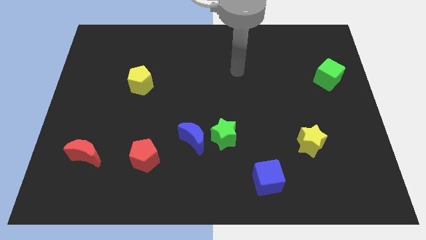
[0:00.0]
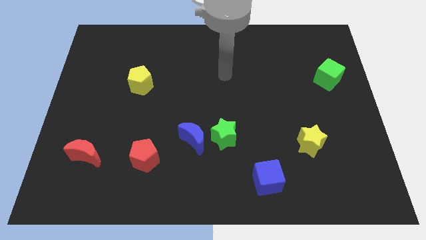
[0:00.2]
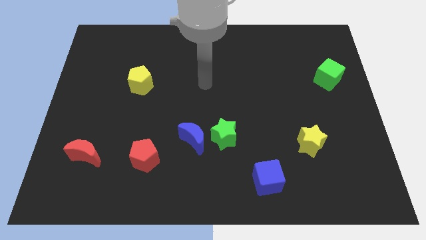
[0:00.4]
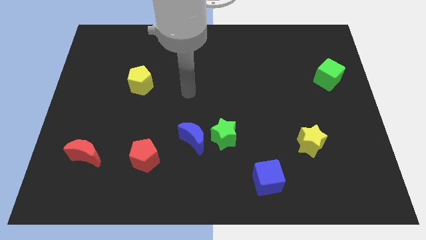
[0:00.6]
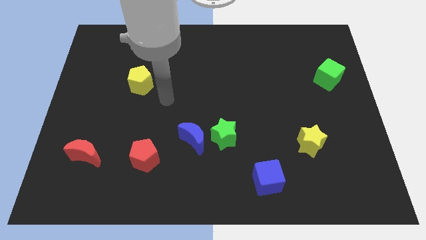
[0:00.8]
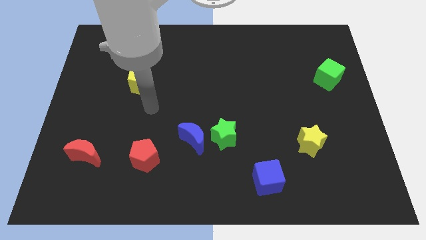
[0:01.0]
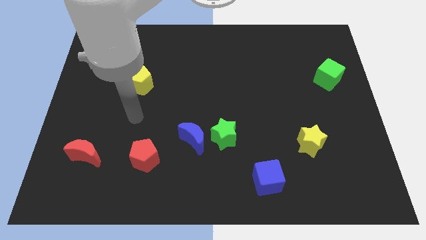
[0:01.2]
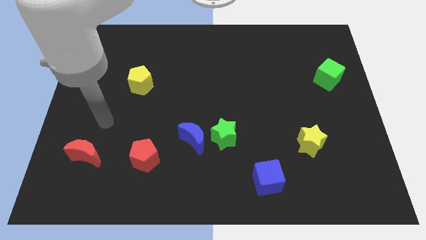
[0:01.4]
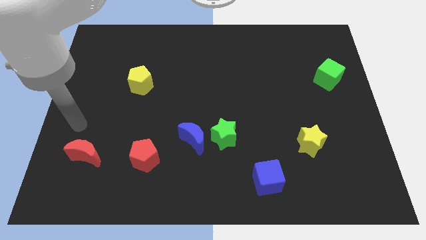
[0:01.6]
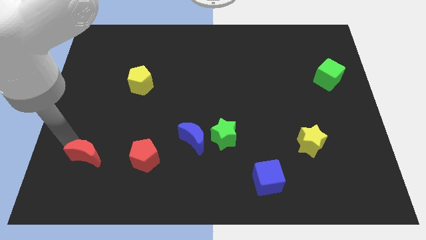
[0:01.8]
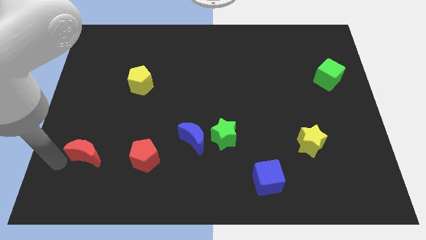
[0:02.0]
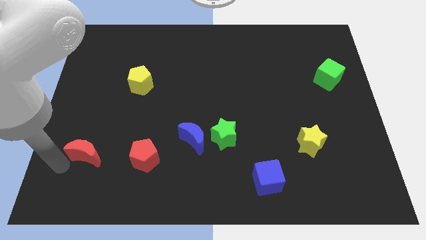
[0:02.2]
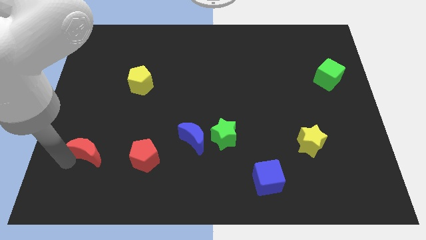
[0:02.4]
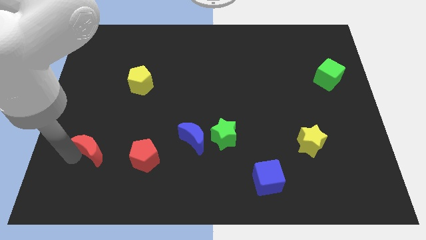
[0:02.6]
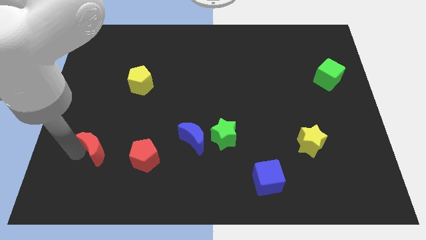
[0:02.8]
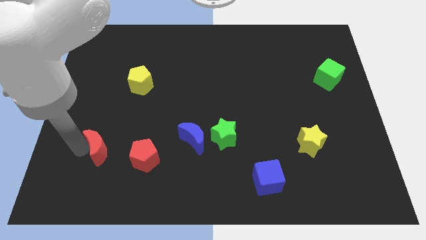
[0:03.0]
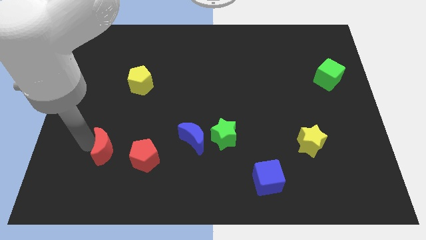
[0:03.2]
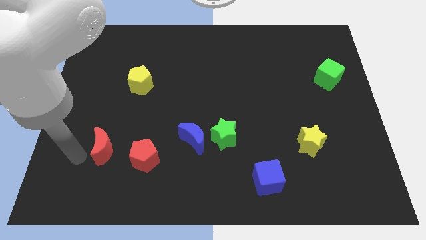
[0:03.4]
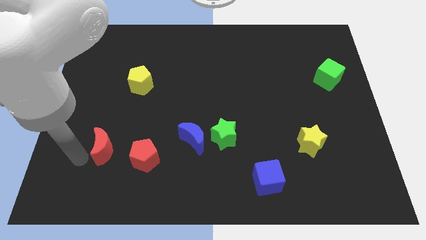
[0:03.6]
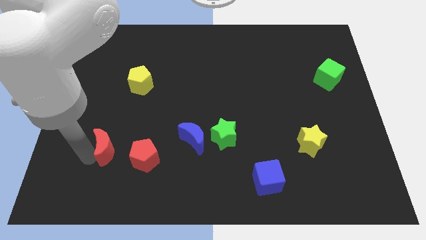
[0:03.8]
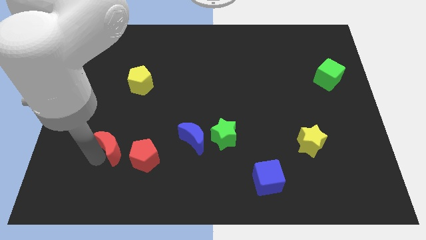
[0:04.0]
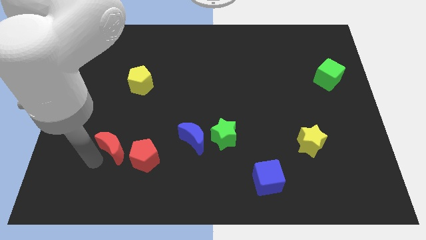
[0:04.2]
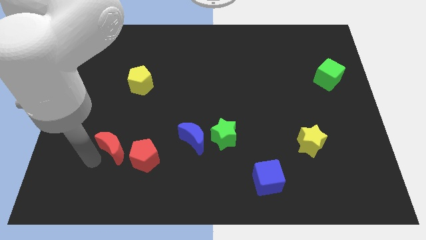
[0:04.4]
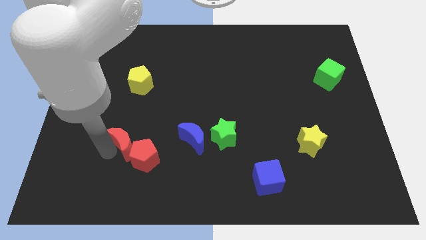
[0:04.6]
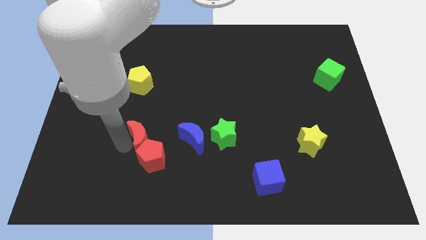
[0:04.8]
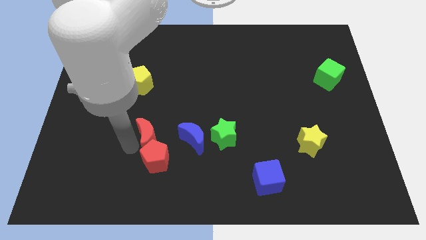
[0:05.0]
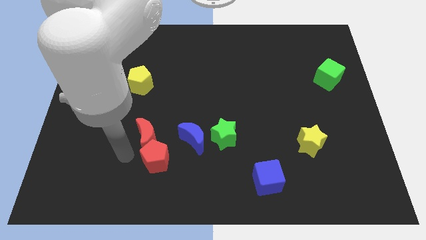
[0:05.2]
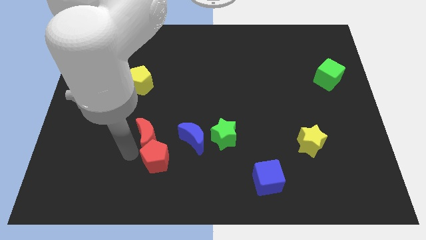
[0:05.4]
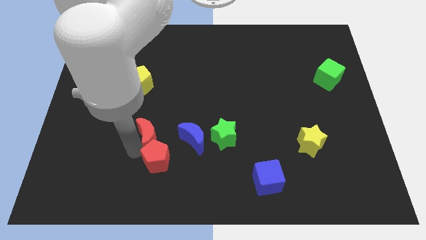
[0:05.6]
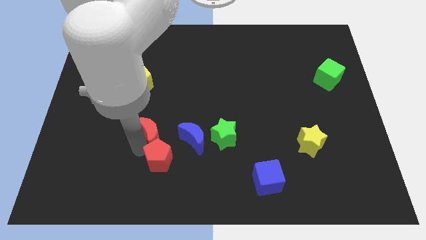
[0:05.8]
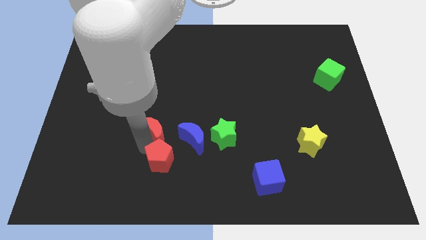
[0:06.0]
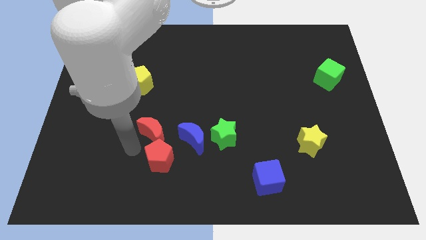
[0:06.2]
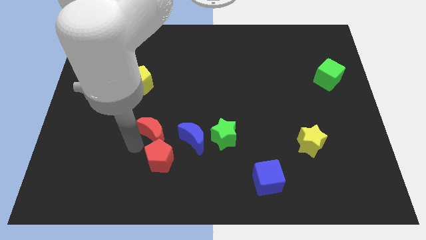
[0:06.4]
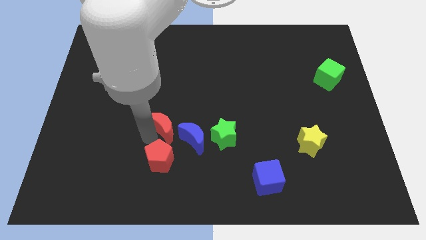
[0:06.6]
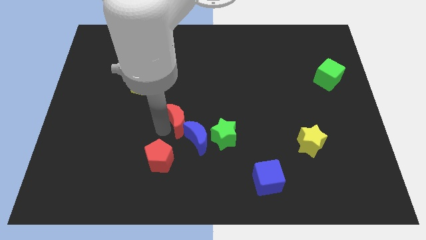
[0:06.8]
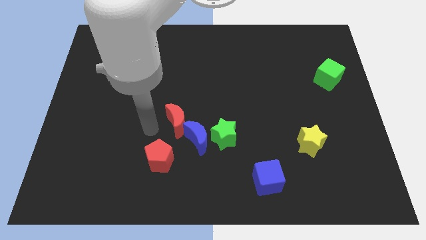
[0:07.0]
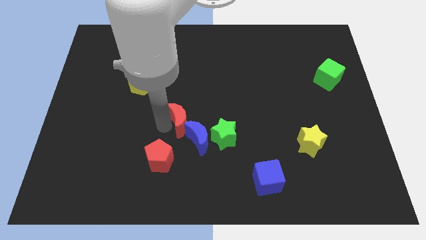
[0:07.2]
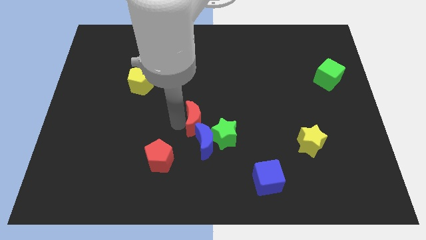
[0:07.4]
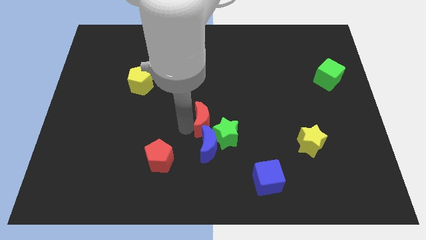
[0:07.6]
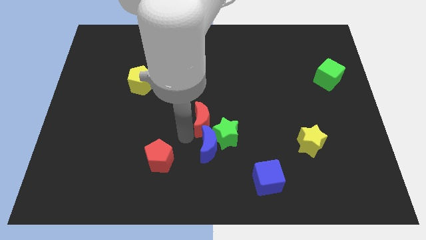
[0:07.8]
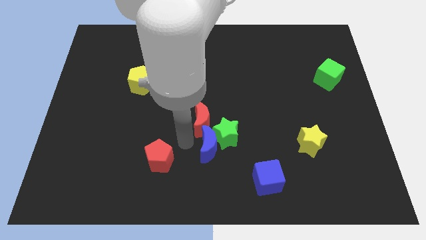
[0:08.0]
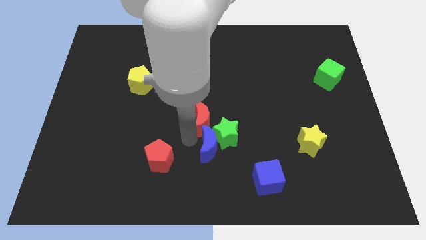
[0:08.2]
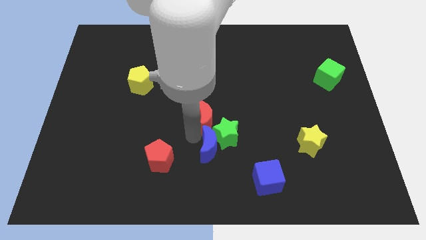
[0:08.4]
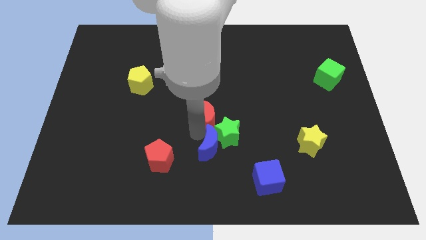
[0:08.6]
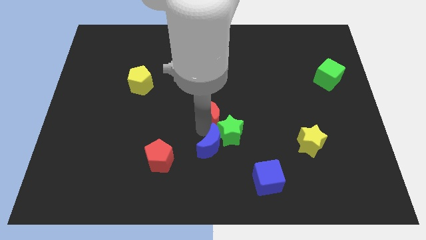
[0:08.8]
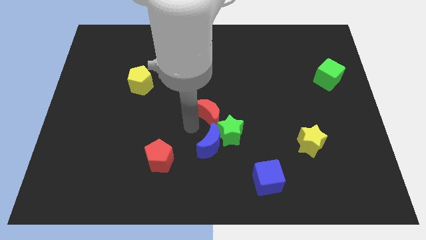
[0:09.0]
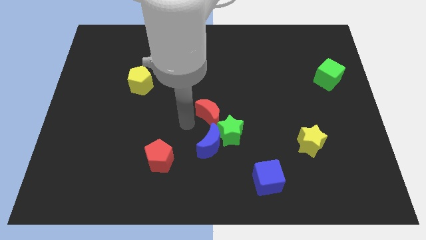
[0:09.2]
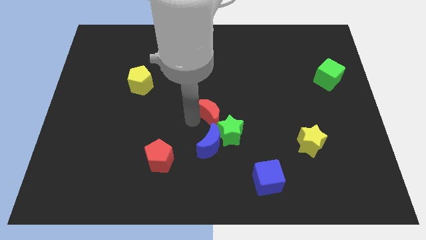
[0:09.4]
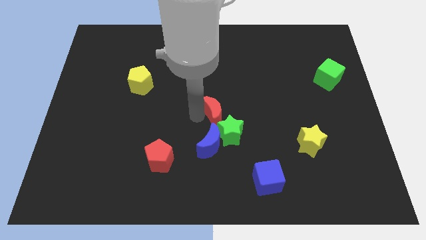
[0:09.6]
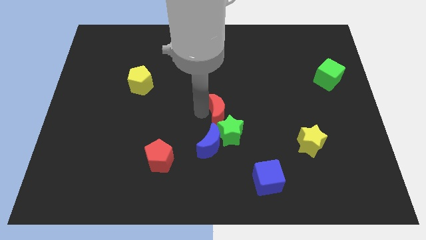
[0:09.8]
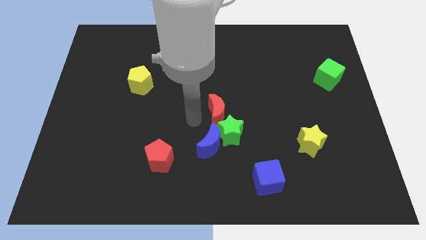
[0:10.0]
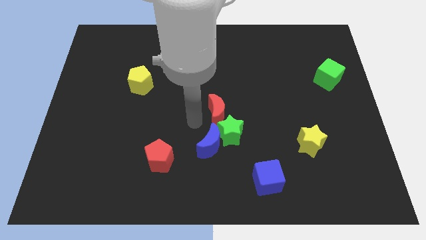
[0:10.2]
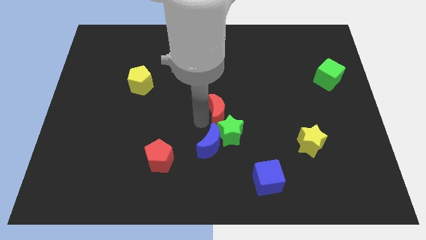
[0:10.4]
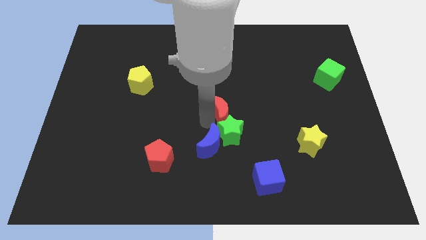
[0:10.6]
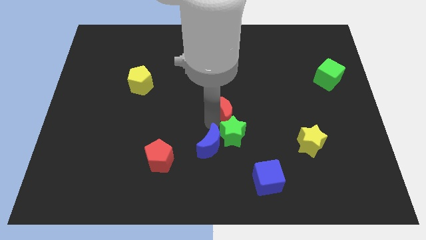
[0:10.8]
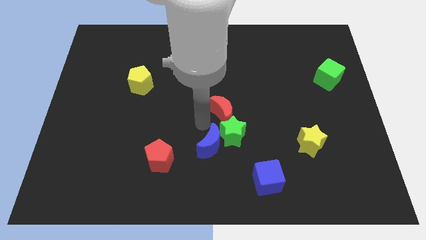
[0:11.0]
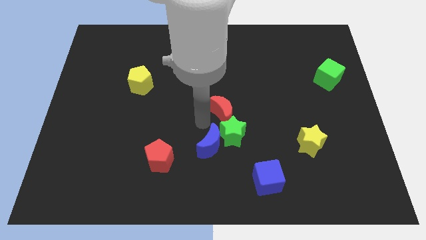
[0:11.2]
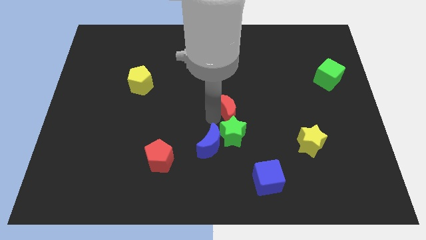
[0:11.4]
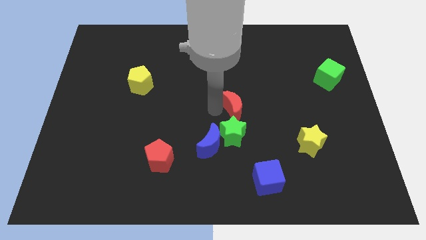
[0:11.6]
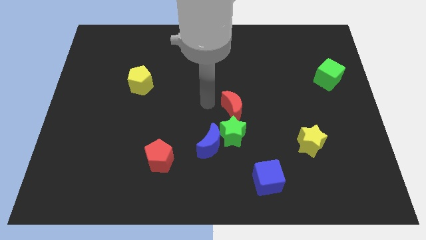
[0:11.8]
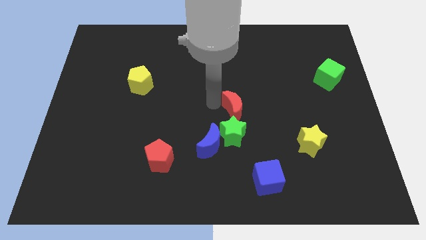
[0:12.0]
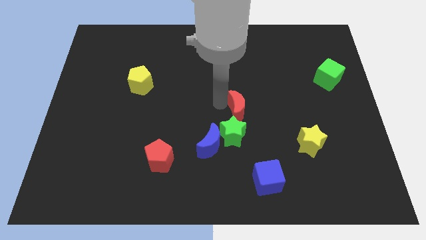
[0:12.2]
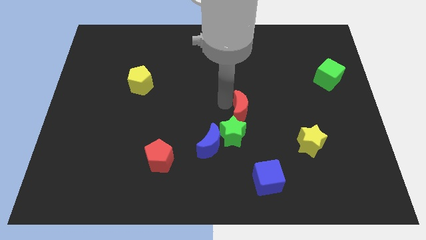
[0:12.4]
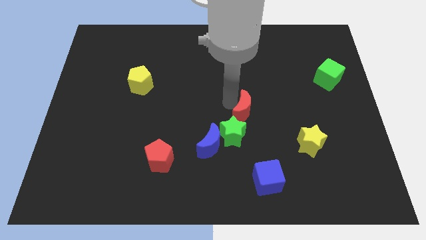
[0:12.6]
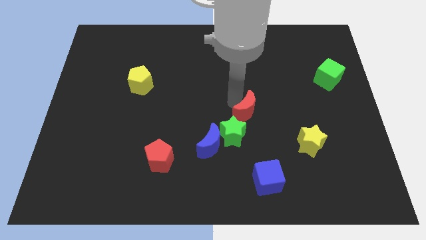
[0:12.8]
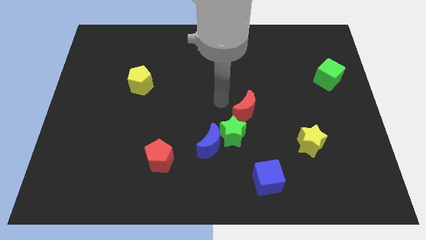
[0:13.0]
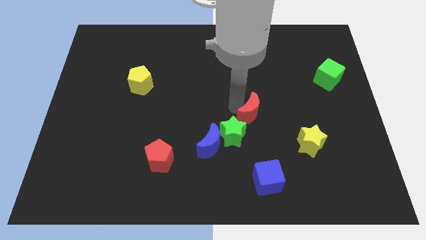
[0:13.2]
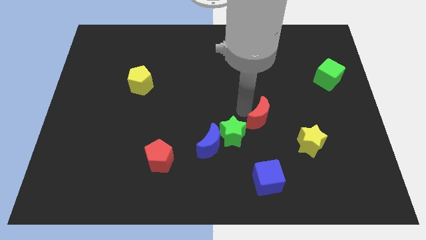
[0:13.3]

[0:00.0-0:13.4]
push the red moon to the top left side of the yellow star
